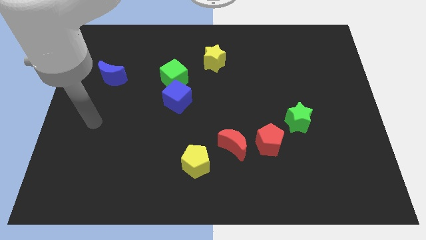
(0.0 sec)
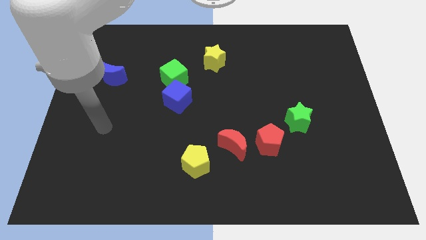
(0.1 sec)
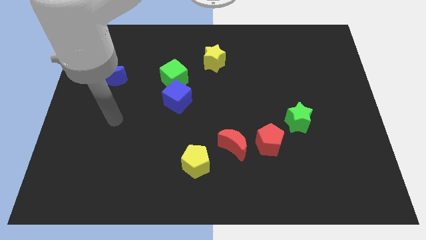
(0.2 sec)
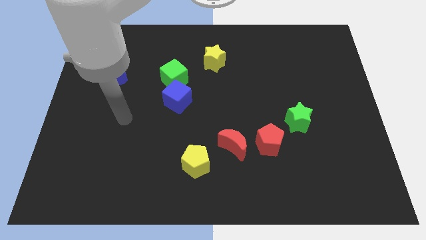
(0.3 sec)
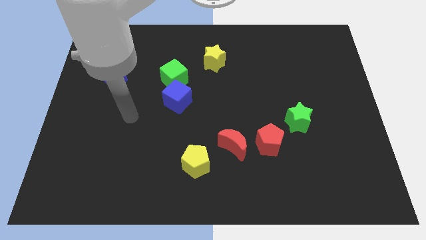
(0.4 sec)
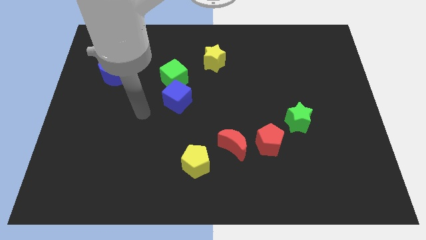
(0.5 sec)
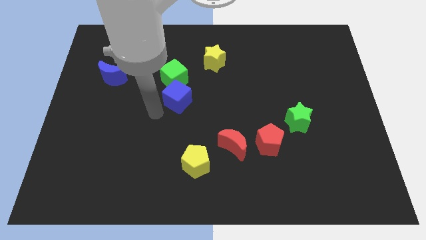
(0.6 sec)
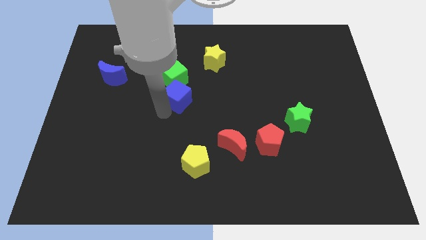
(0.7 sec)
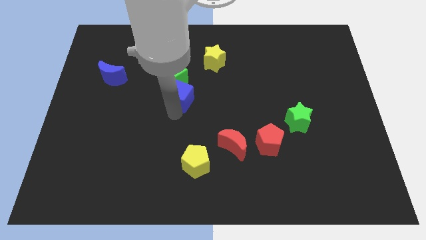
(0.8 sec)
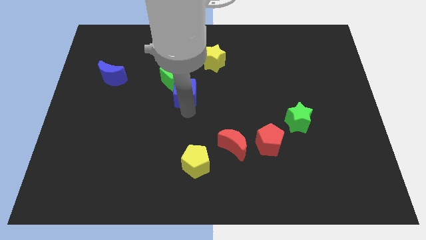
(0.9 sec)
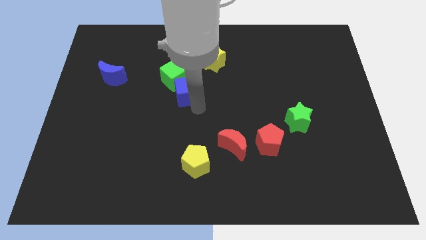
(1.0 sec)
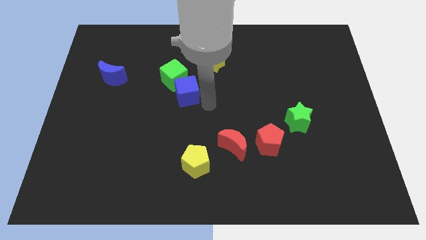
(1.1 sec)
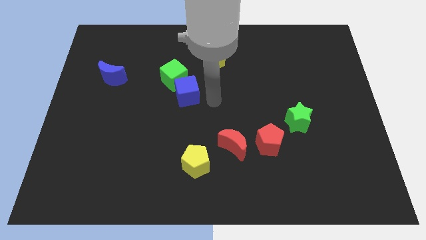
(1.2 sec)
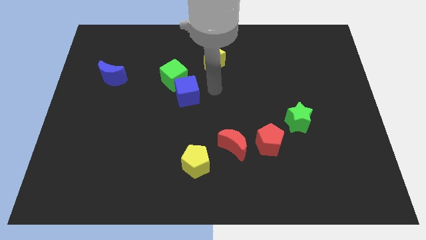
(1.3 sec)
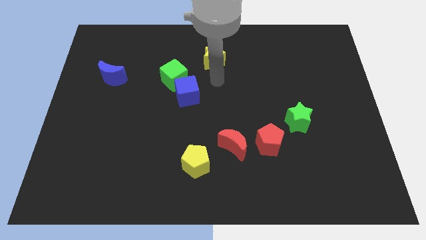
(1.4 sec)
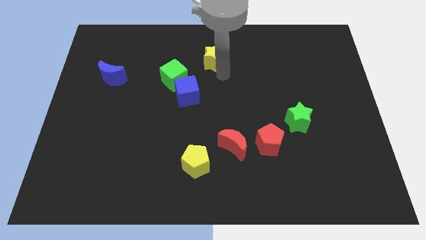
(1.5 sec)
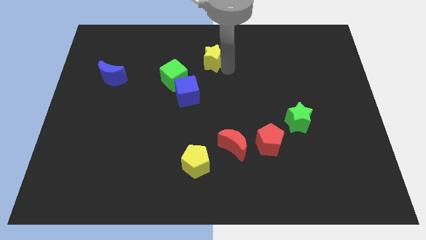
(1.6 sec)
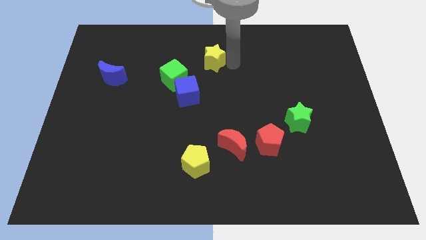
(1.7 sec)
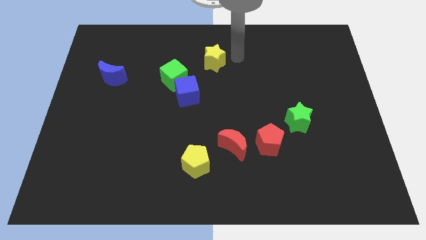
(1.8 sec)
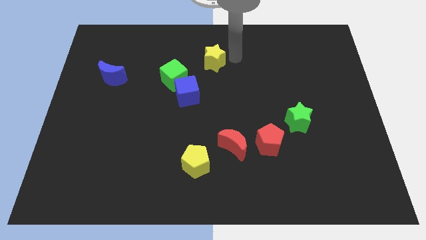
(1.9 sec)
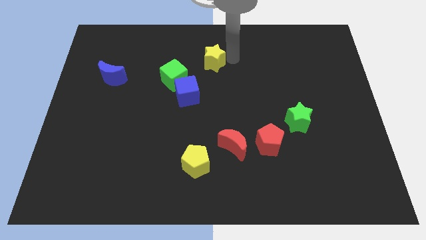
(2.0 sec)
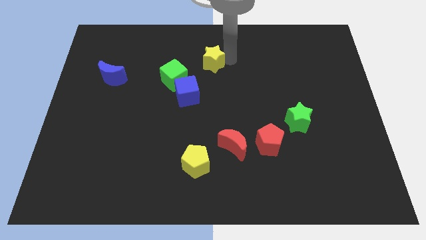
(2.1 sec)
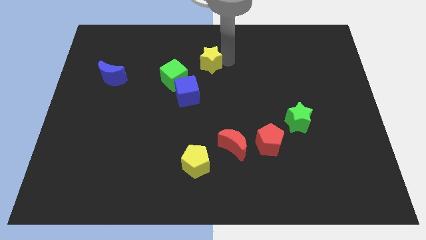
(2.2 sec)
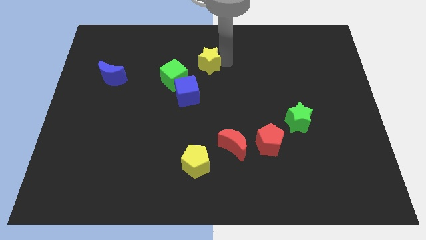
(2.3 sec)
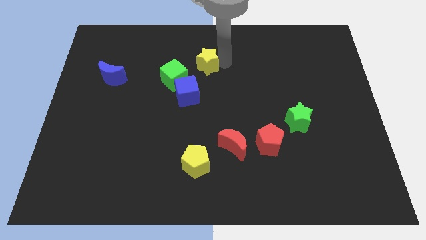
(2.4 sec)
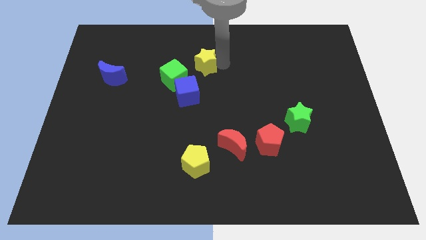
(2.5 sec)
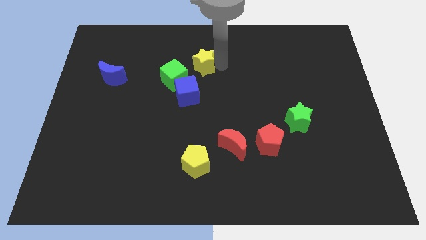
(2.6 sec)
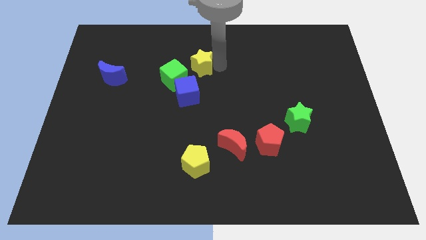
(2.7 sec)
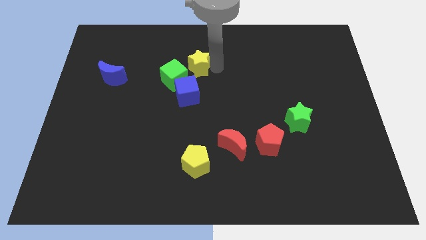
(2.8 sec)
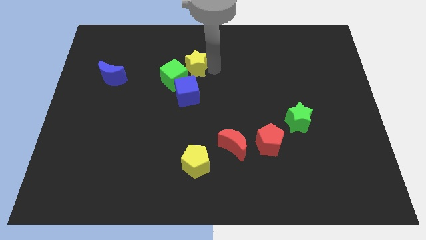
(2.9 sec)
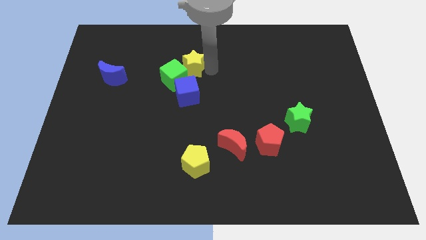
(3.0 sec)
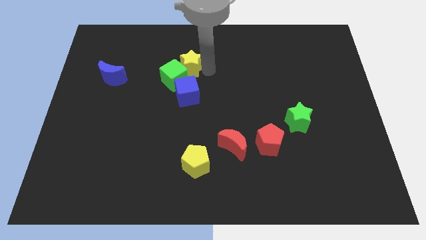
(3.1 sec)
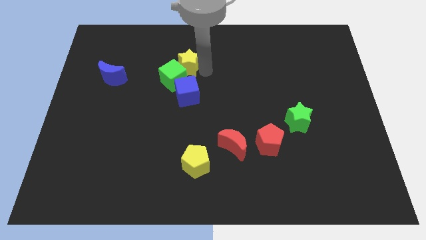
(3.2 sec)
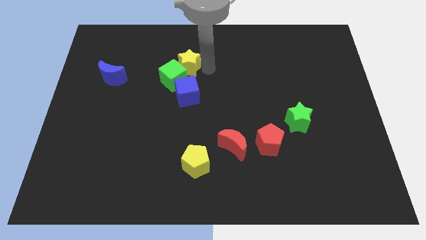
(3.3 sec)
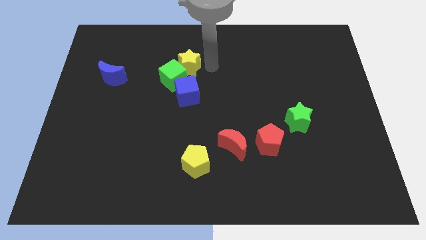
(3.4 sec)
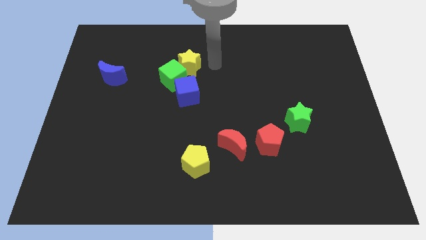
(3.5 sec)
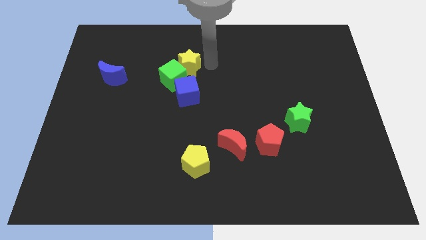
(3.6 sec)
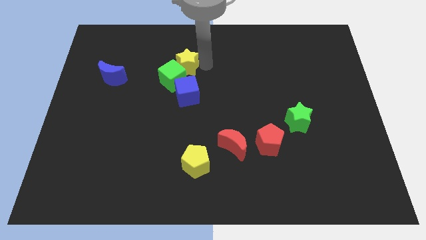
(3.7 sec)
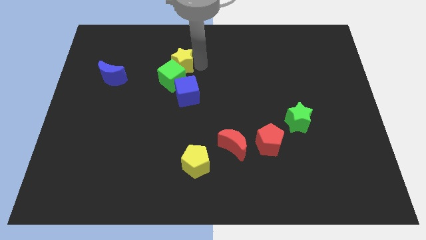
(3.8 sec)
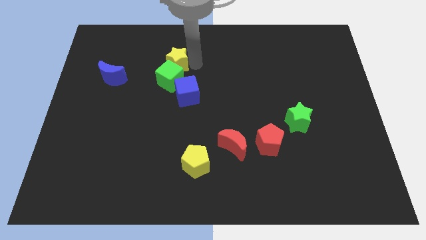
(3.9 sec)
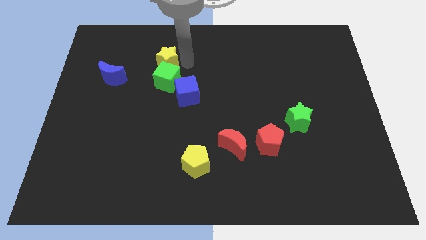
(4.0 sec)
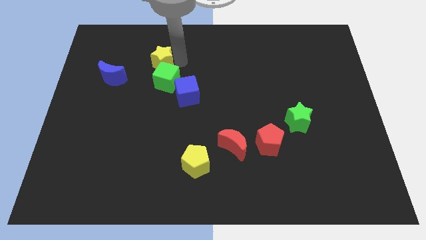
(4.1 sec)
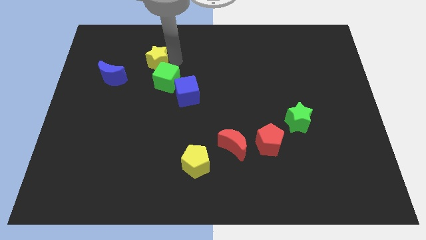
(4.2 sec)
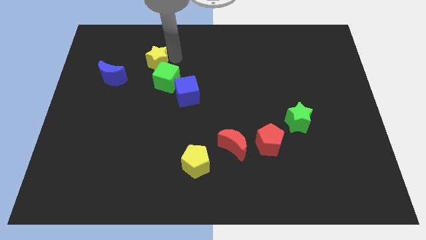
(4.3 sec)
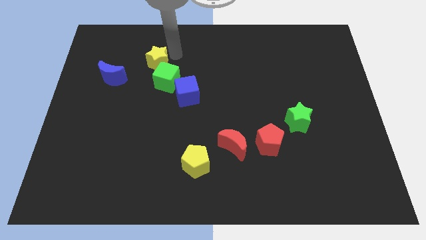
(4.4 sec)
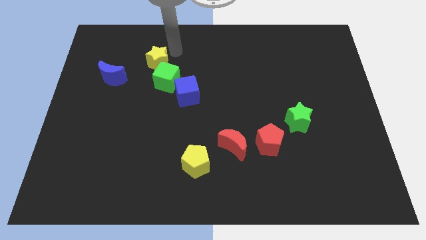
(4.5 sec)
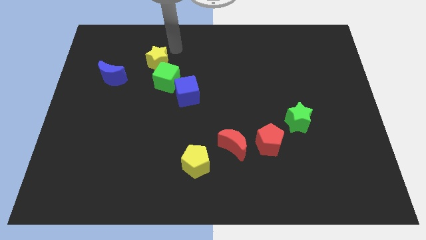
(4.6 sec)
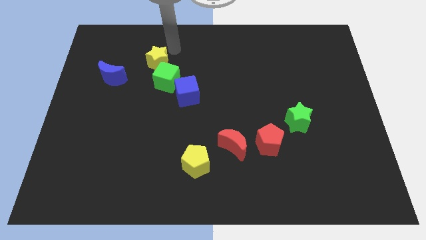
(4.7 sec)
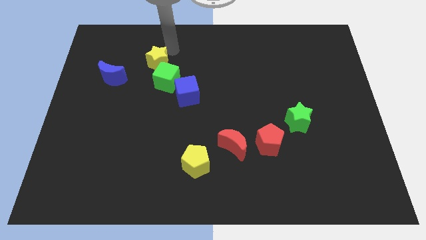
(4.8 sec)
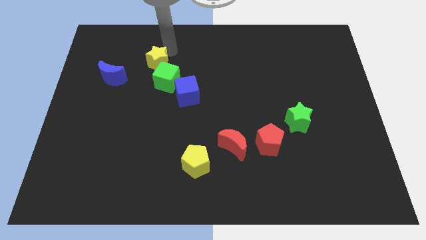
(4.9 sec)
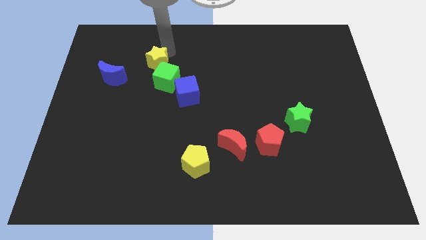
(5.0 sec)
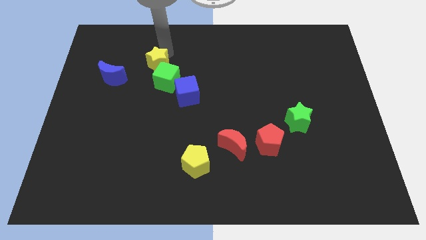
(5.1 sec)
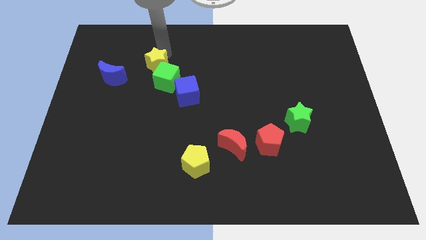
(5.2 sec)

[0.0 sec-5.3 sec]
slide the yellow star a little bit diagonally downwards and left

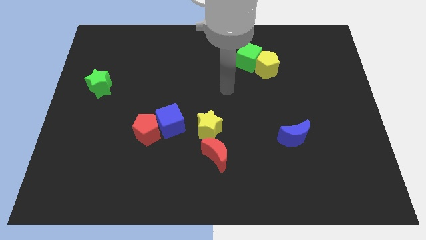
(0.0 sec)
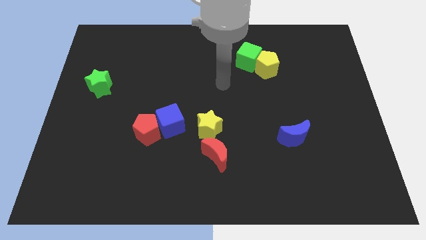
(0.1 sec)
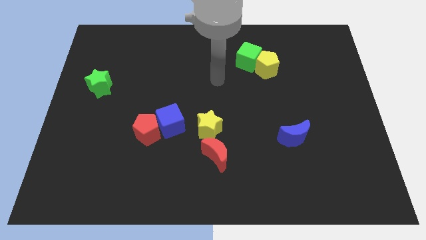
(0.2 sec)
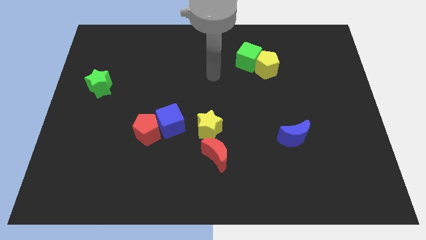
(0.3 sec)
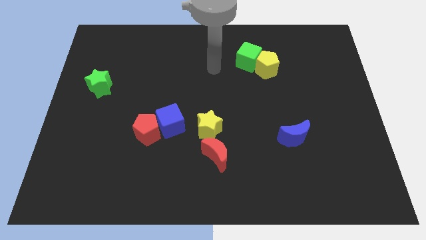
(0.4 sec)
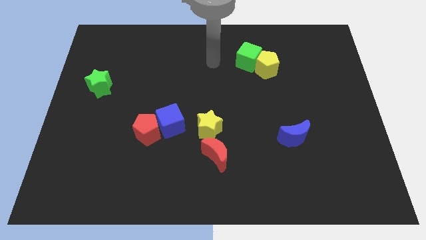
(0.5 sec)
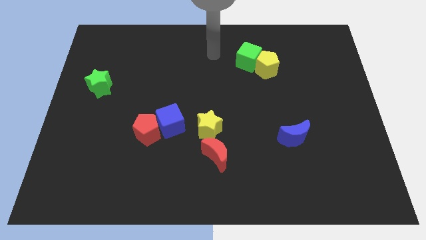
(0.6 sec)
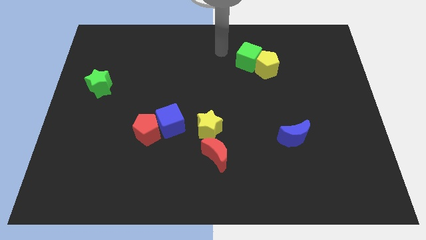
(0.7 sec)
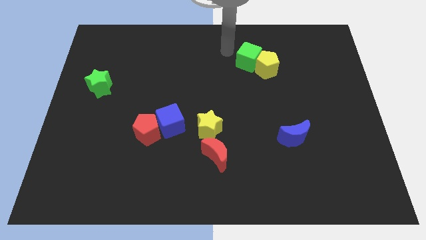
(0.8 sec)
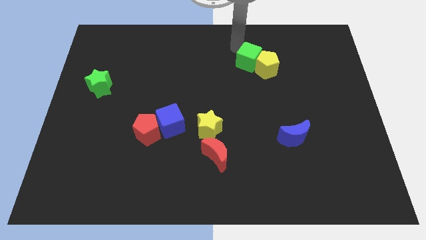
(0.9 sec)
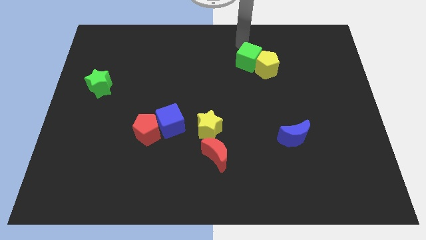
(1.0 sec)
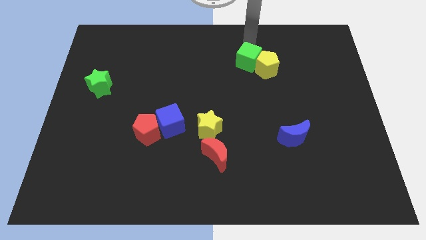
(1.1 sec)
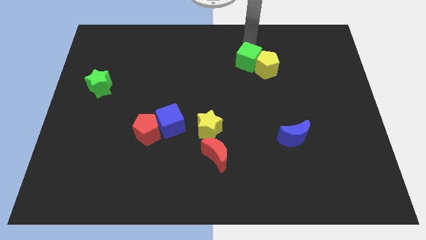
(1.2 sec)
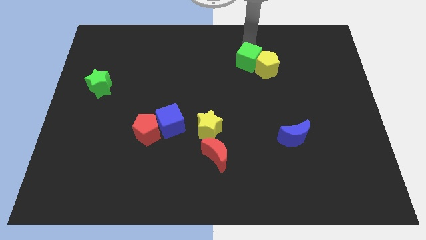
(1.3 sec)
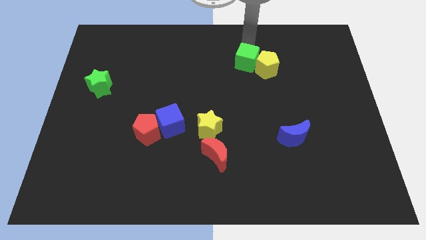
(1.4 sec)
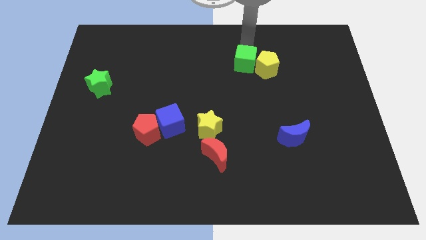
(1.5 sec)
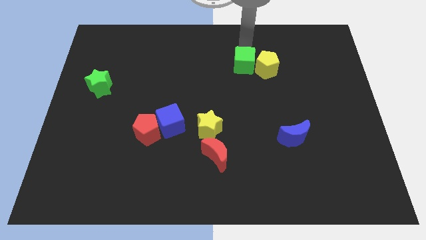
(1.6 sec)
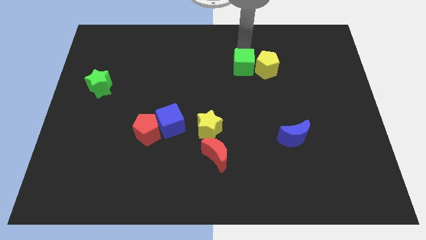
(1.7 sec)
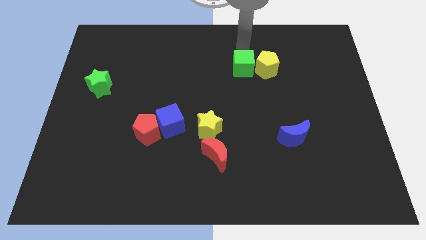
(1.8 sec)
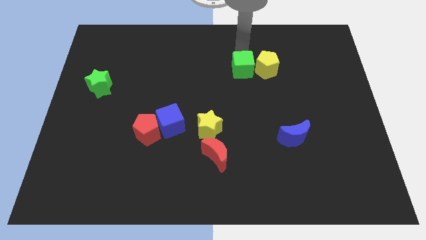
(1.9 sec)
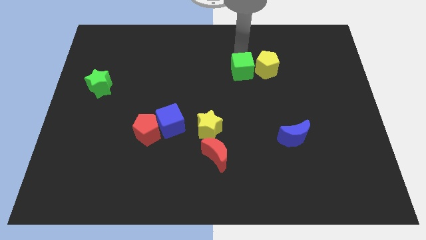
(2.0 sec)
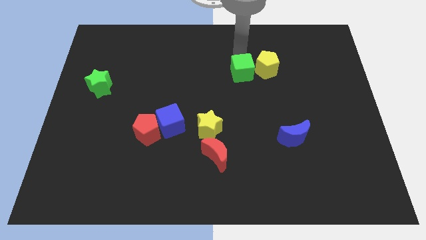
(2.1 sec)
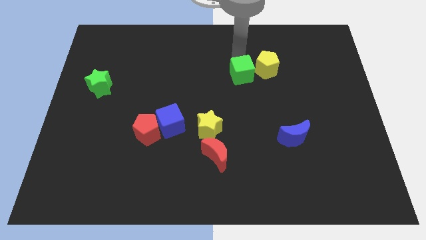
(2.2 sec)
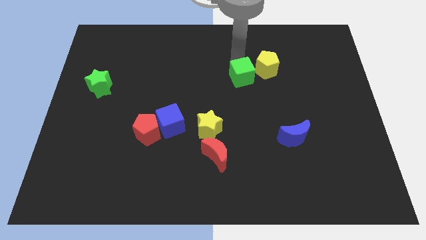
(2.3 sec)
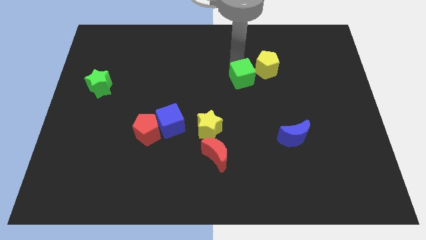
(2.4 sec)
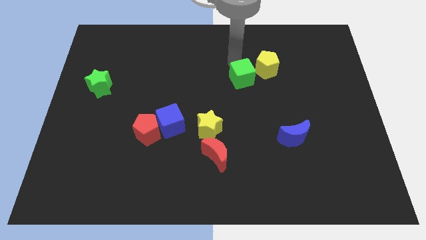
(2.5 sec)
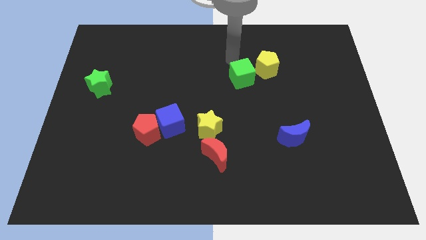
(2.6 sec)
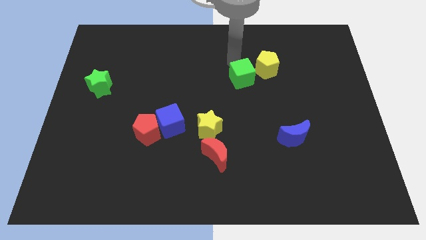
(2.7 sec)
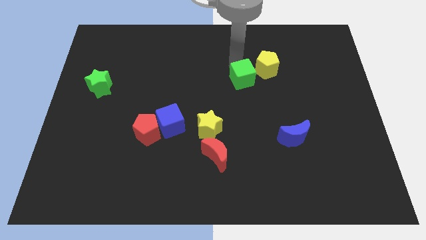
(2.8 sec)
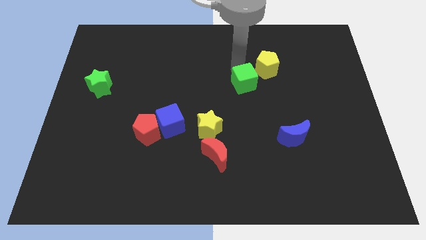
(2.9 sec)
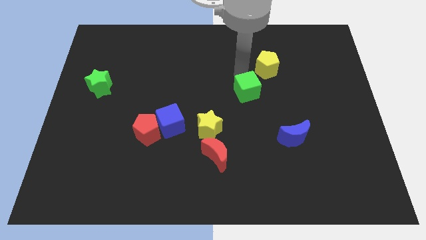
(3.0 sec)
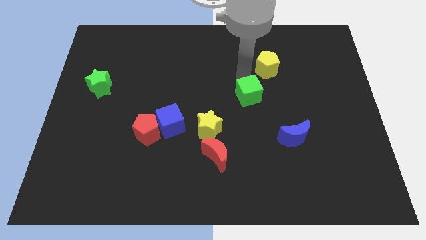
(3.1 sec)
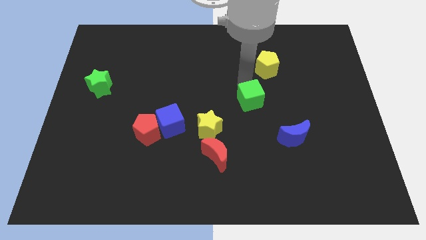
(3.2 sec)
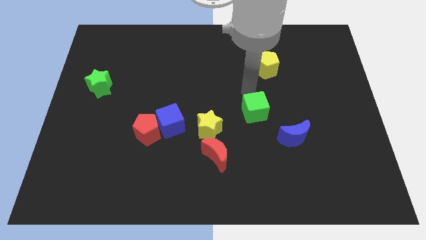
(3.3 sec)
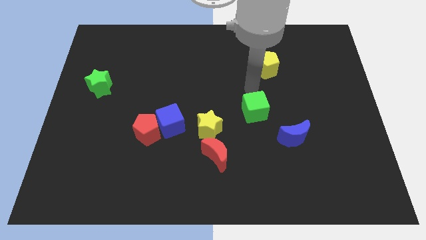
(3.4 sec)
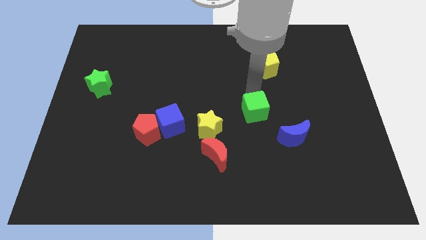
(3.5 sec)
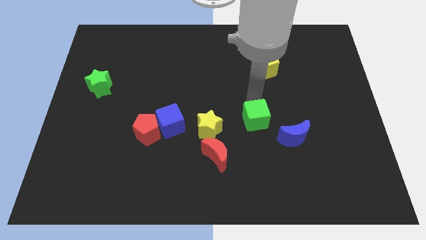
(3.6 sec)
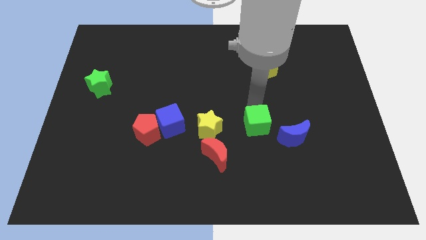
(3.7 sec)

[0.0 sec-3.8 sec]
move the green cube down
